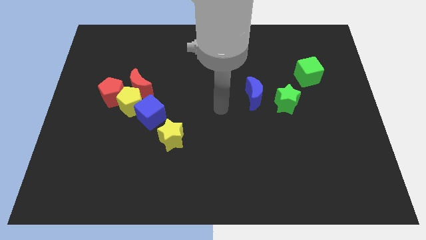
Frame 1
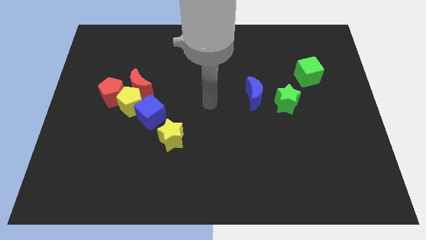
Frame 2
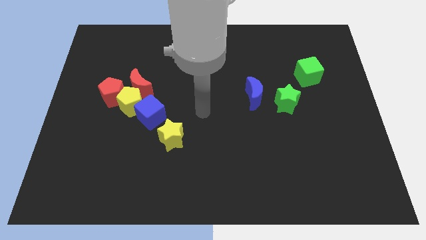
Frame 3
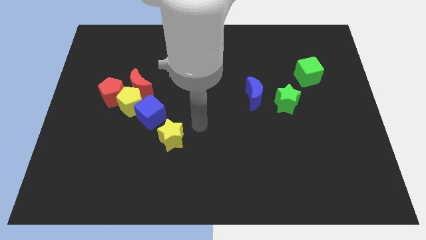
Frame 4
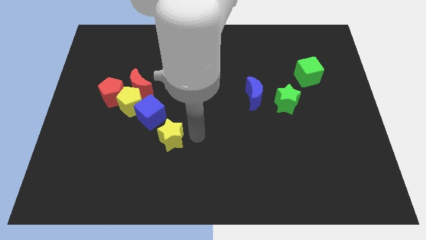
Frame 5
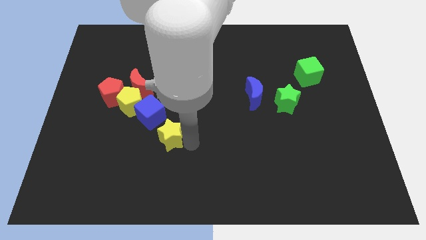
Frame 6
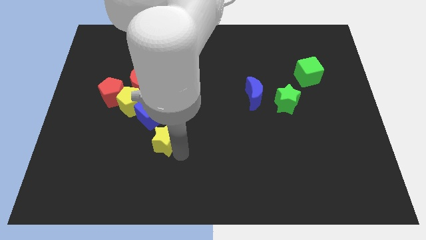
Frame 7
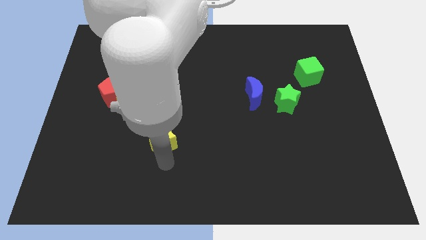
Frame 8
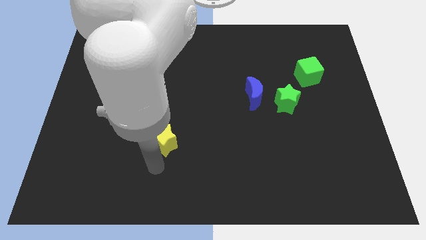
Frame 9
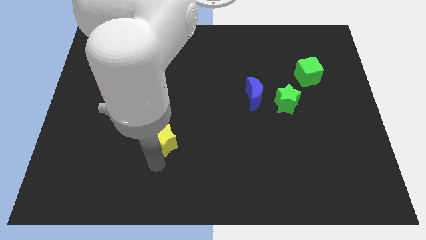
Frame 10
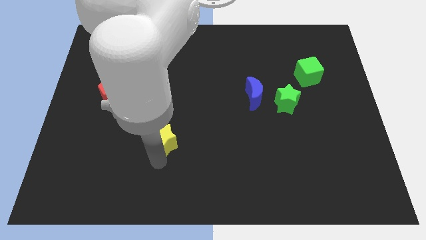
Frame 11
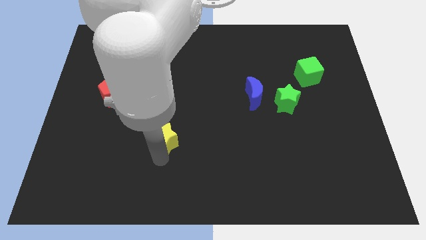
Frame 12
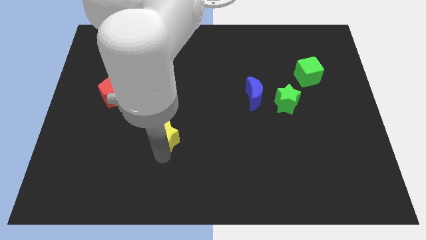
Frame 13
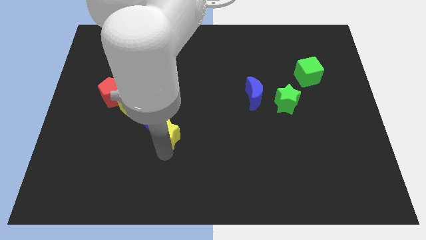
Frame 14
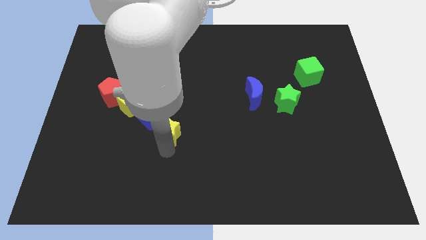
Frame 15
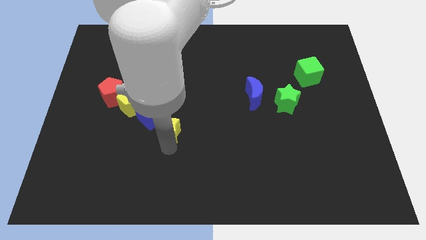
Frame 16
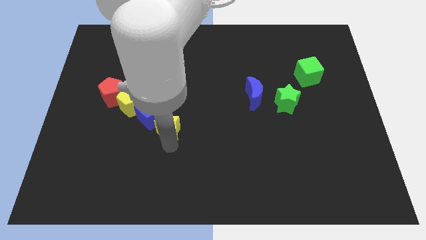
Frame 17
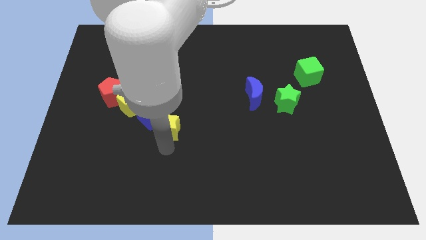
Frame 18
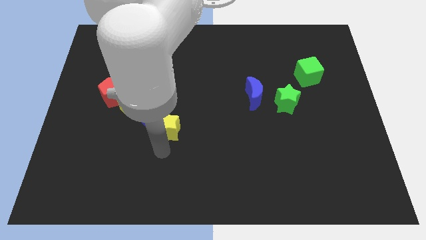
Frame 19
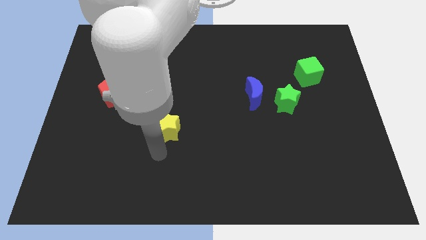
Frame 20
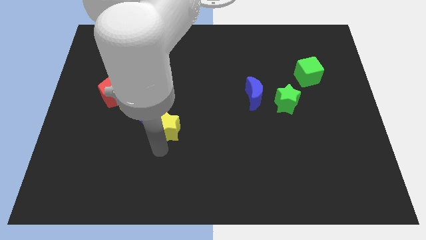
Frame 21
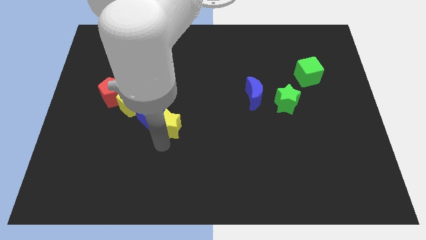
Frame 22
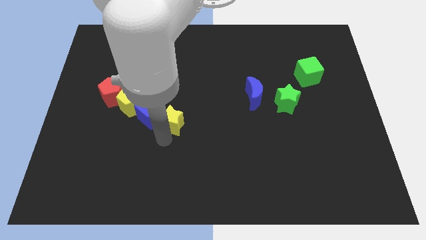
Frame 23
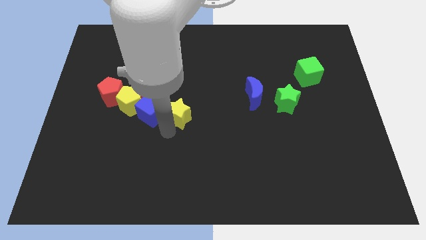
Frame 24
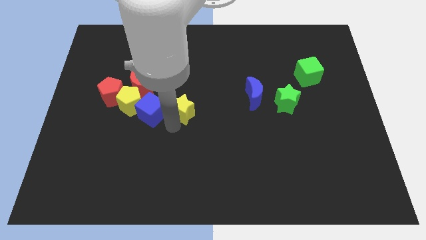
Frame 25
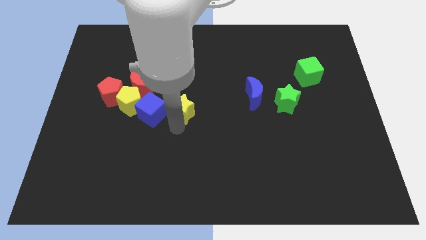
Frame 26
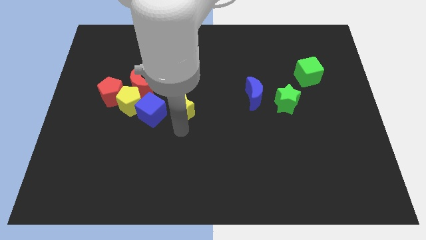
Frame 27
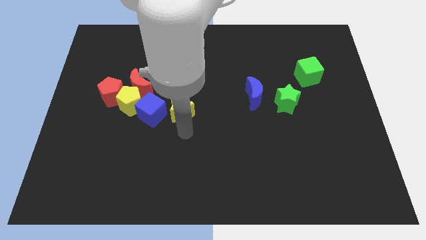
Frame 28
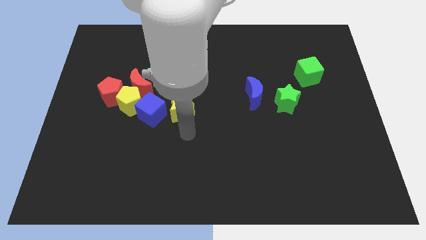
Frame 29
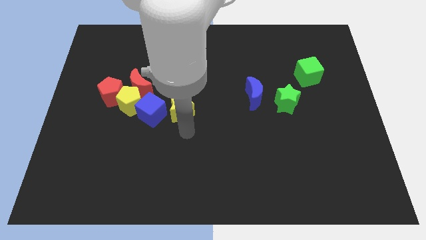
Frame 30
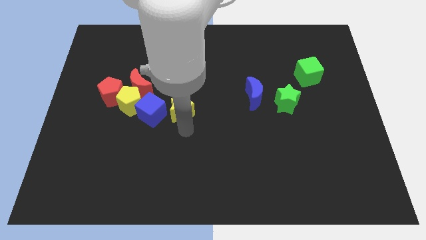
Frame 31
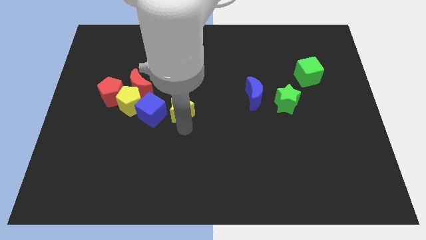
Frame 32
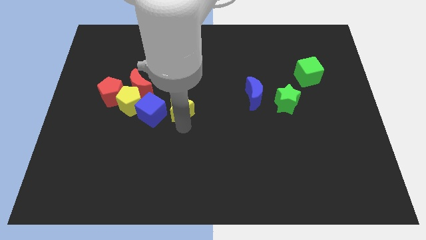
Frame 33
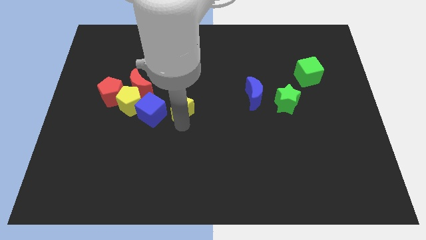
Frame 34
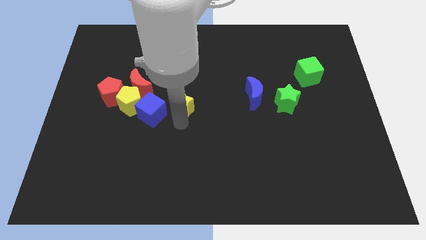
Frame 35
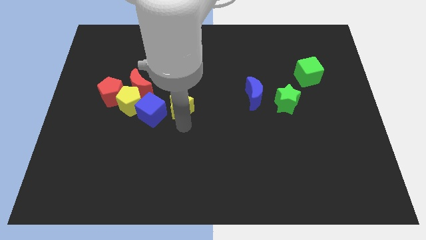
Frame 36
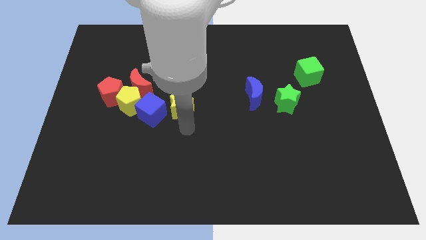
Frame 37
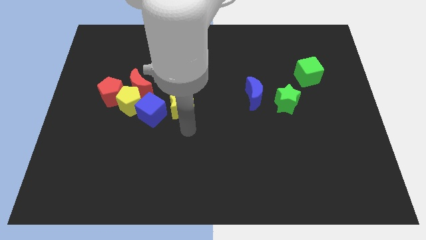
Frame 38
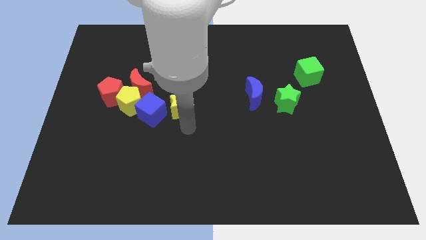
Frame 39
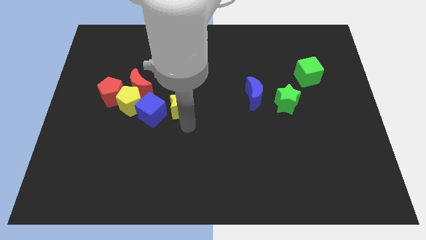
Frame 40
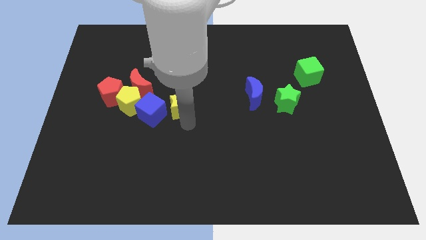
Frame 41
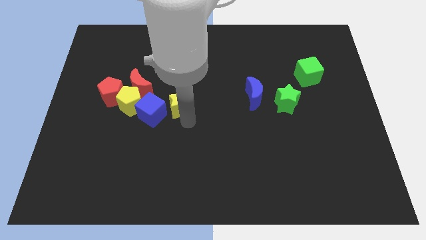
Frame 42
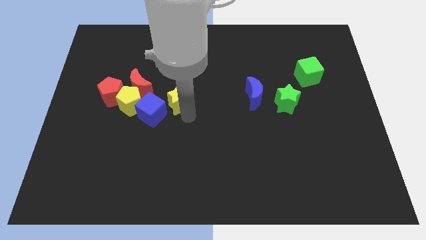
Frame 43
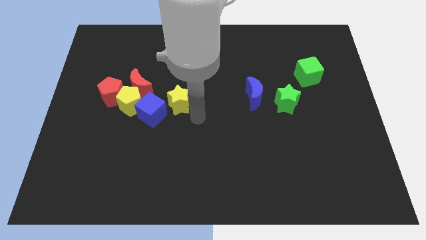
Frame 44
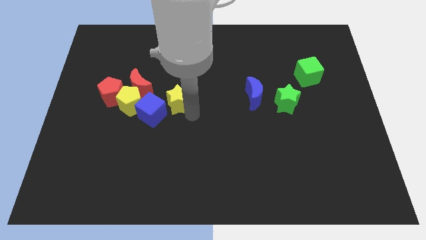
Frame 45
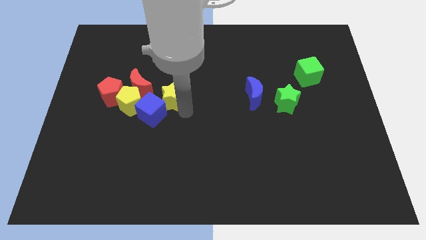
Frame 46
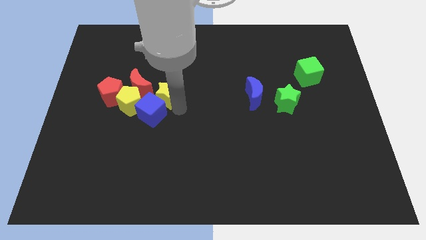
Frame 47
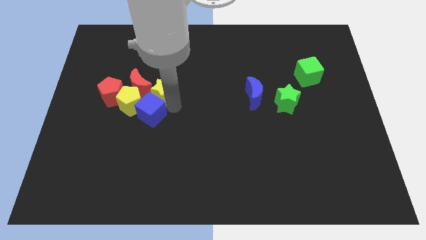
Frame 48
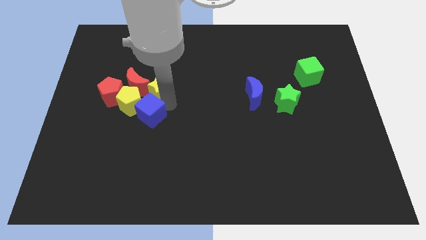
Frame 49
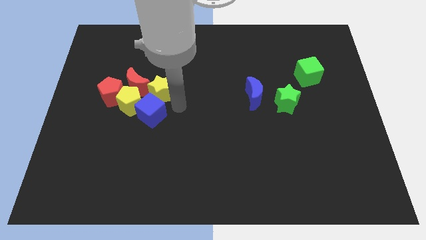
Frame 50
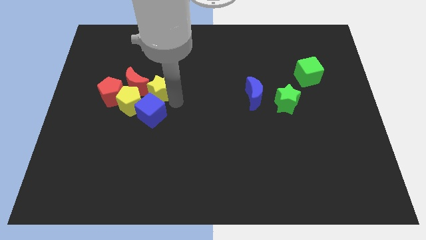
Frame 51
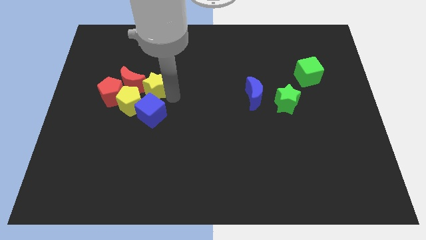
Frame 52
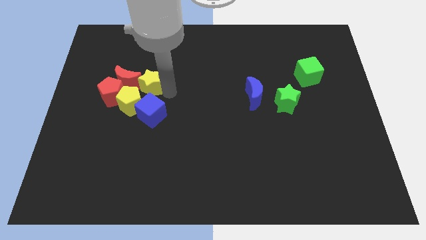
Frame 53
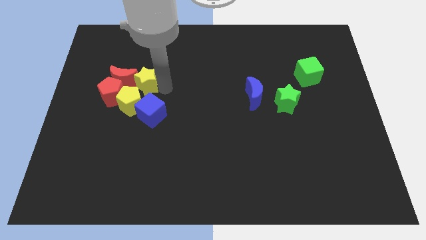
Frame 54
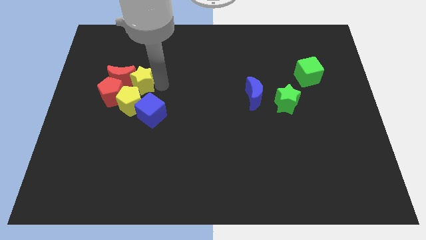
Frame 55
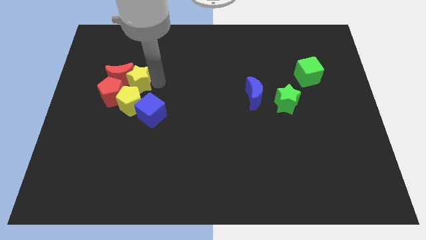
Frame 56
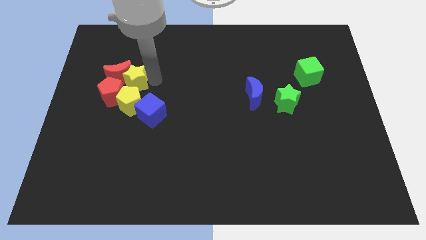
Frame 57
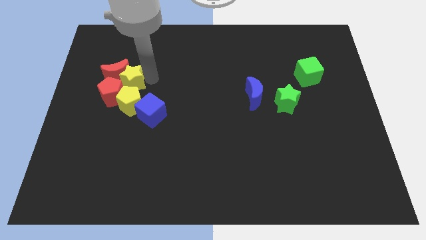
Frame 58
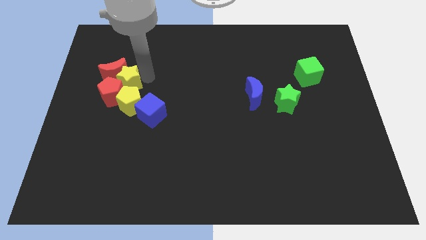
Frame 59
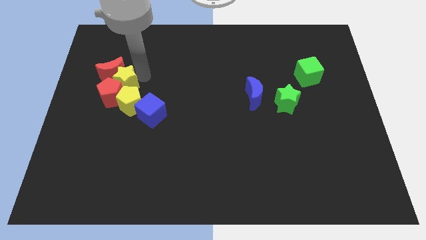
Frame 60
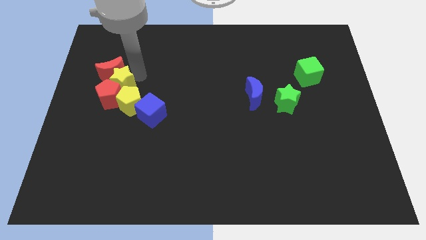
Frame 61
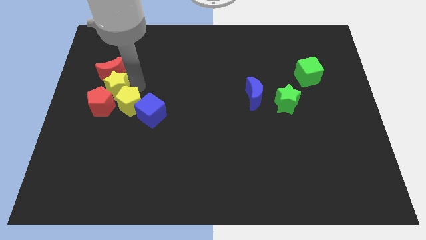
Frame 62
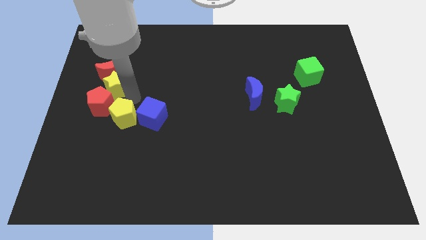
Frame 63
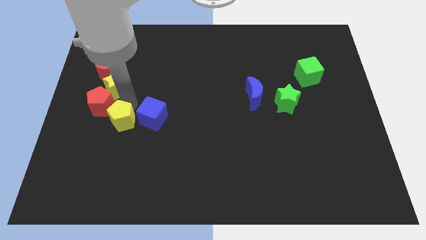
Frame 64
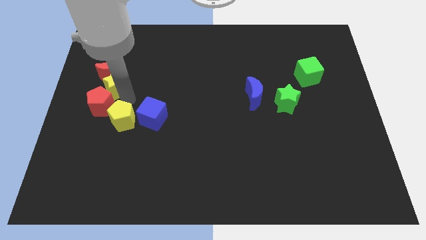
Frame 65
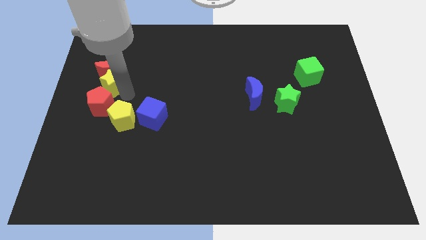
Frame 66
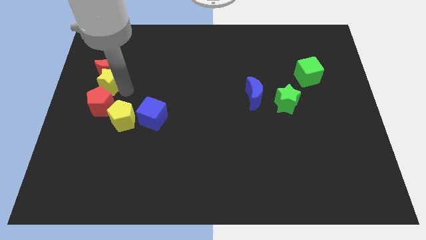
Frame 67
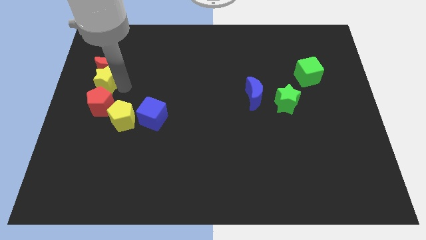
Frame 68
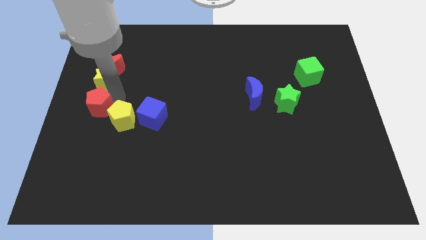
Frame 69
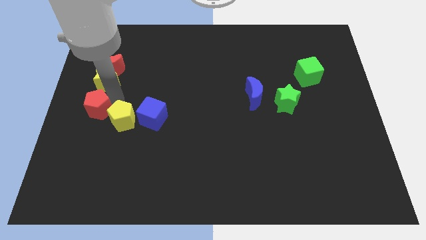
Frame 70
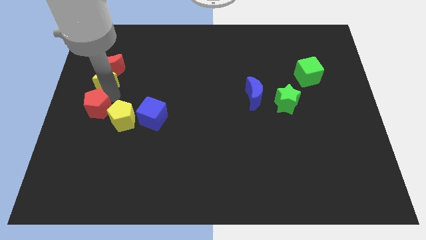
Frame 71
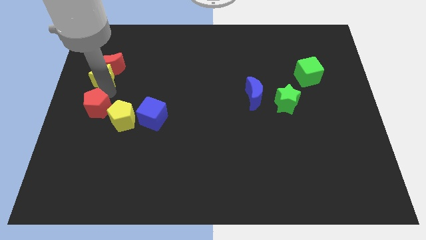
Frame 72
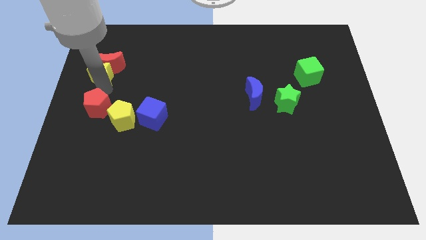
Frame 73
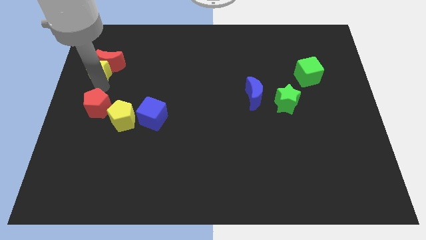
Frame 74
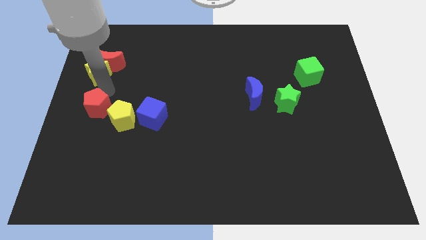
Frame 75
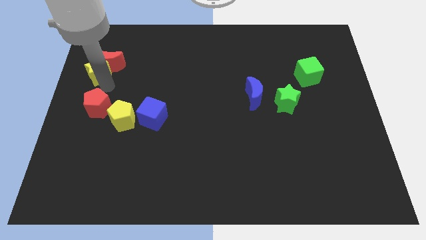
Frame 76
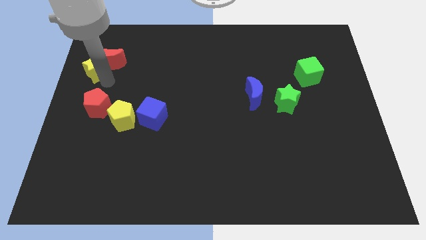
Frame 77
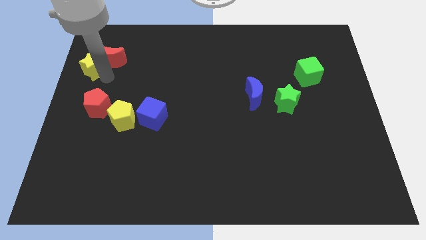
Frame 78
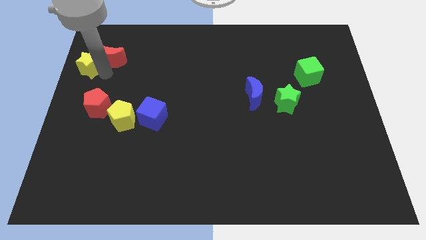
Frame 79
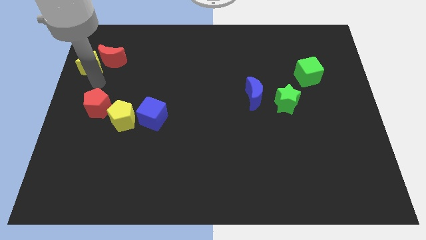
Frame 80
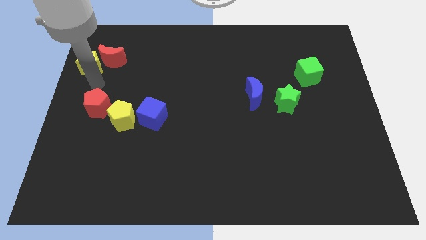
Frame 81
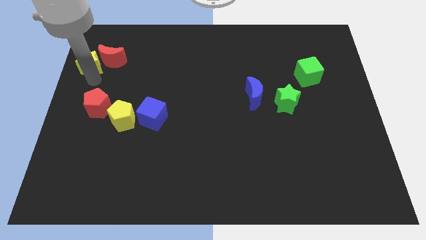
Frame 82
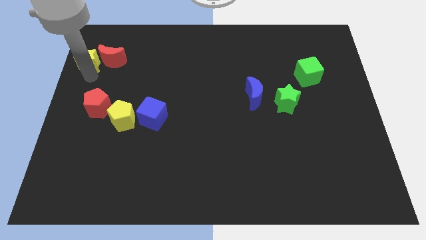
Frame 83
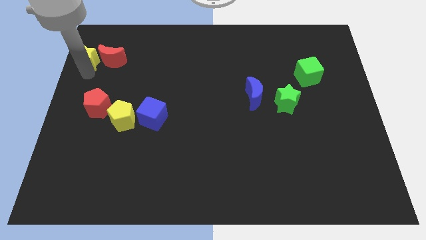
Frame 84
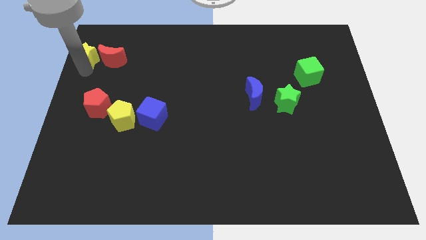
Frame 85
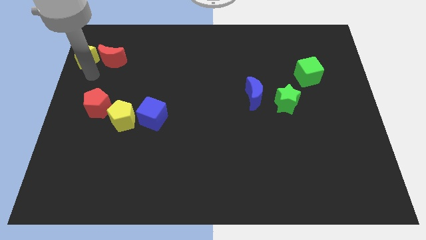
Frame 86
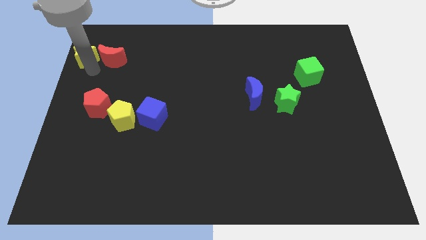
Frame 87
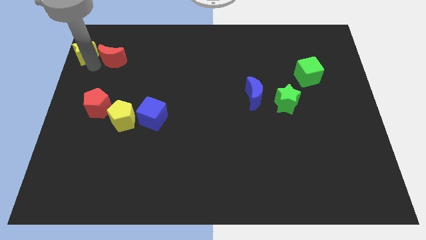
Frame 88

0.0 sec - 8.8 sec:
slide the yellow star to the upper left corner
